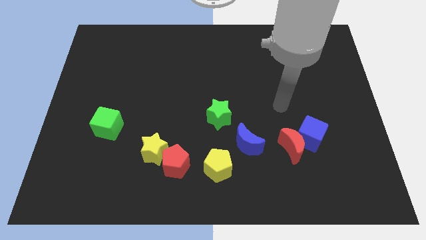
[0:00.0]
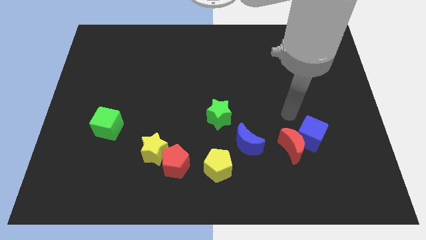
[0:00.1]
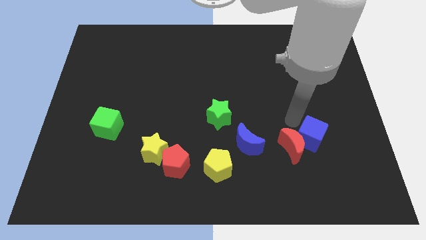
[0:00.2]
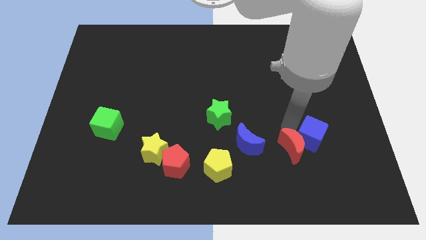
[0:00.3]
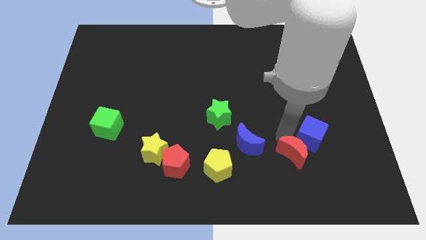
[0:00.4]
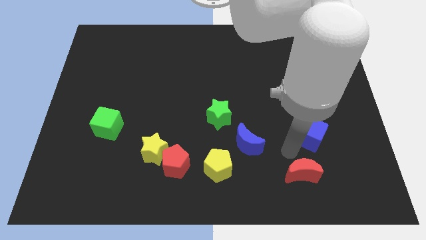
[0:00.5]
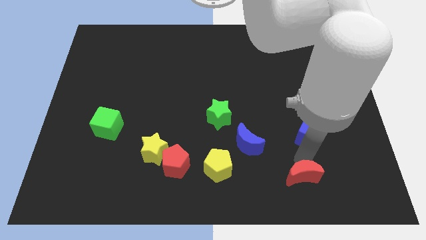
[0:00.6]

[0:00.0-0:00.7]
separate the blue cube from the red moon

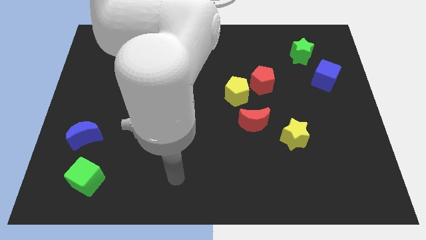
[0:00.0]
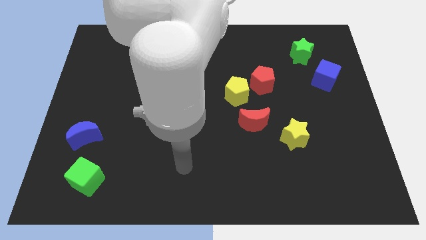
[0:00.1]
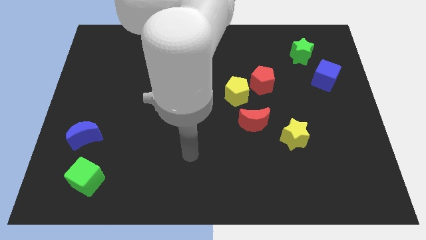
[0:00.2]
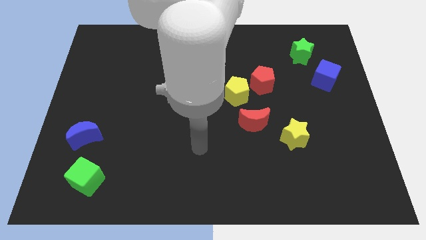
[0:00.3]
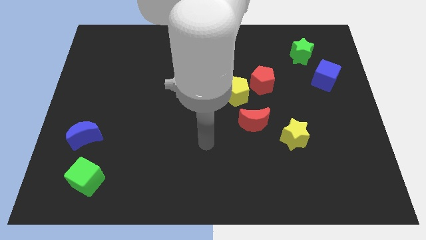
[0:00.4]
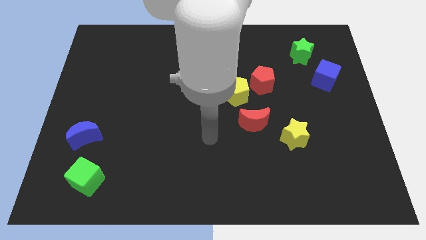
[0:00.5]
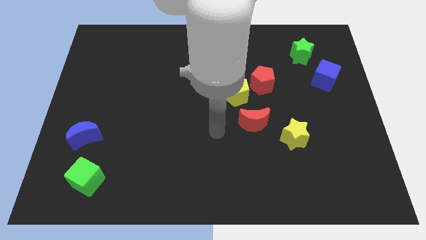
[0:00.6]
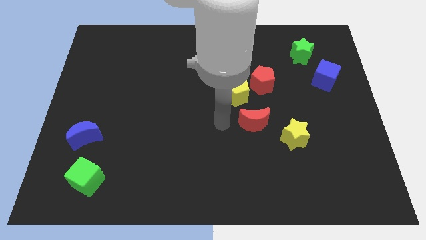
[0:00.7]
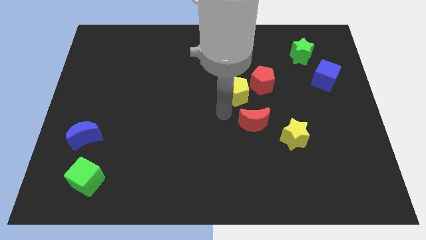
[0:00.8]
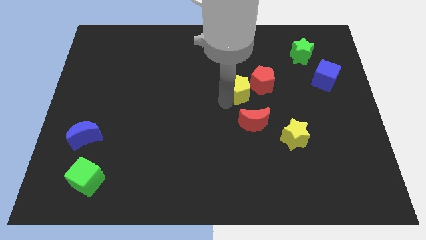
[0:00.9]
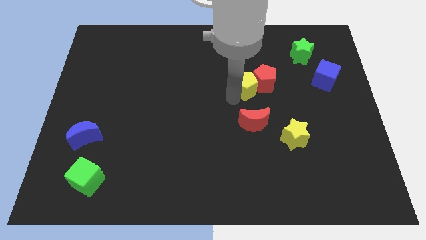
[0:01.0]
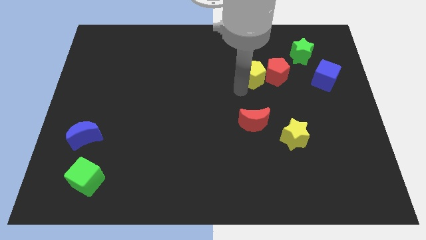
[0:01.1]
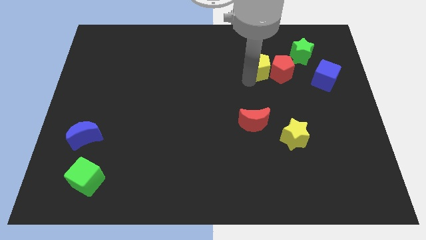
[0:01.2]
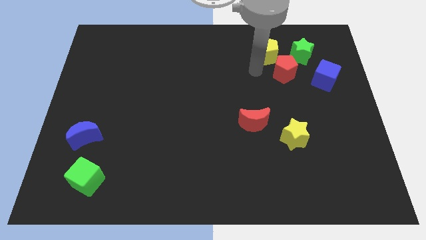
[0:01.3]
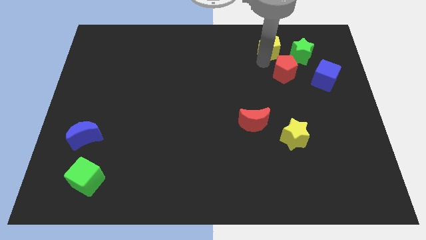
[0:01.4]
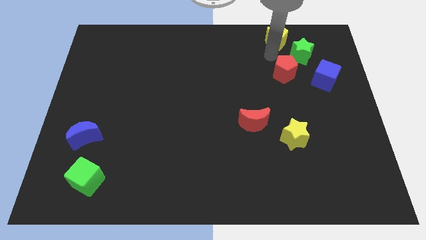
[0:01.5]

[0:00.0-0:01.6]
pull the red pentagon apart from the yellow pentagon

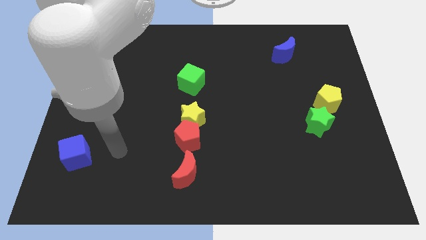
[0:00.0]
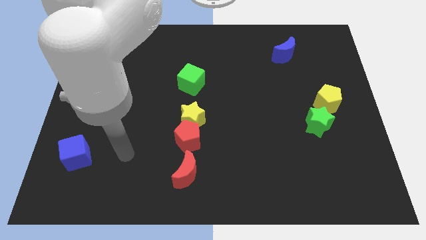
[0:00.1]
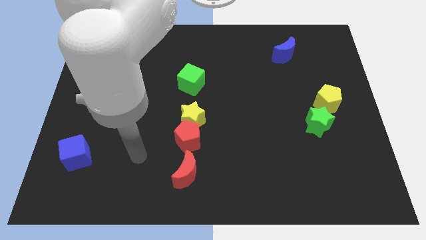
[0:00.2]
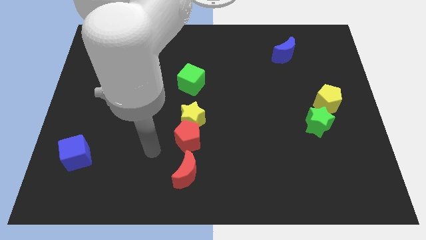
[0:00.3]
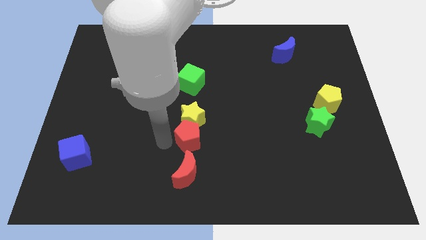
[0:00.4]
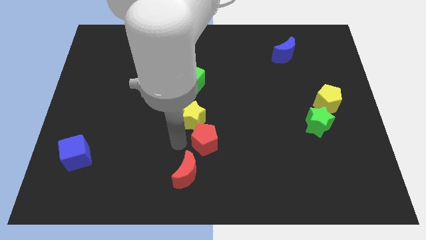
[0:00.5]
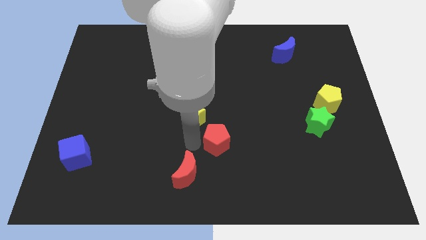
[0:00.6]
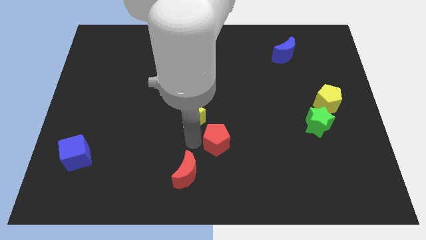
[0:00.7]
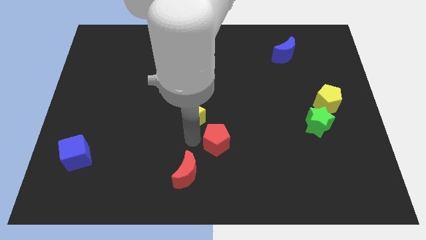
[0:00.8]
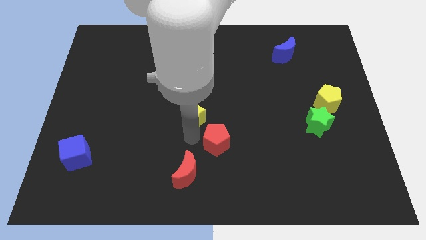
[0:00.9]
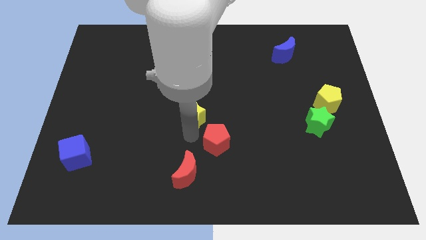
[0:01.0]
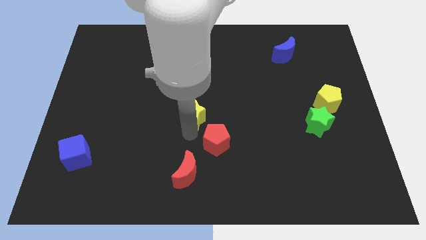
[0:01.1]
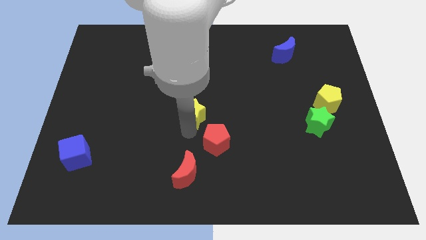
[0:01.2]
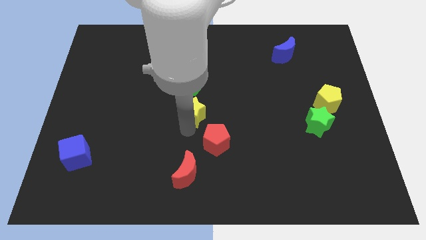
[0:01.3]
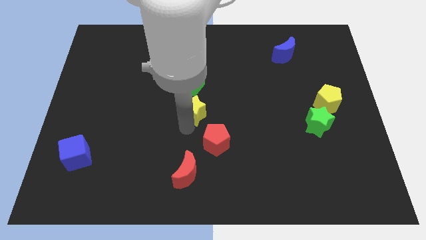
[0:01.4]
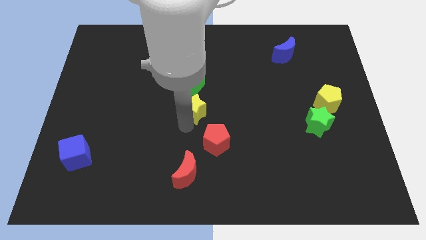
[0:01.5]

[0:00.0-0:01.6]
separate the yellow star from the red pentagon

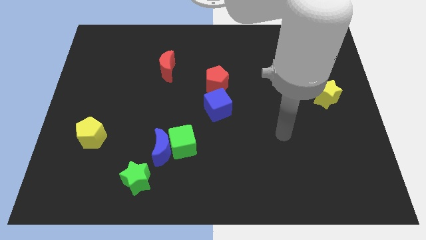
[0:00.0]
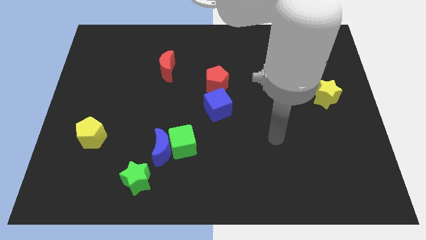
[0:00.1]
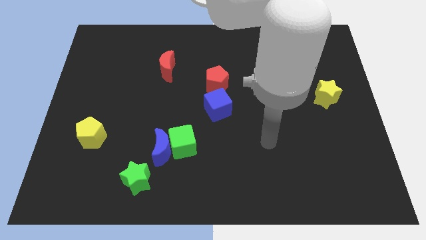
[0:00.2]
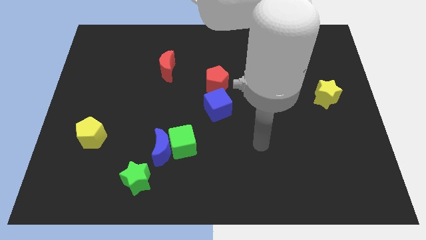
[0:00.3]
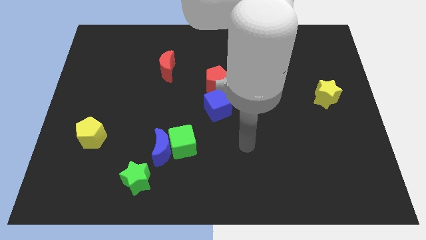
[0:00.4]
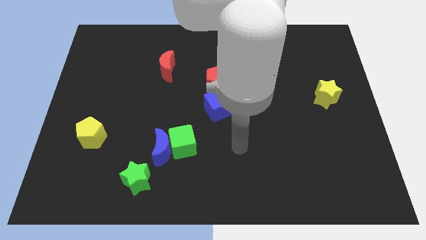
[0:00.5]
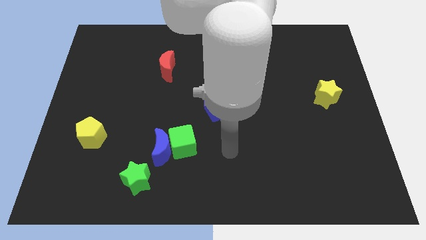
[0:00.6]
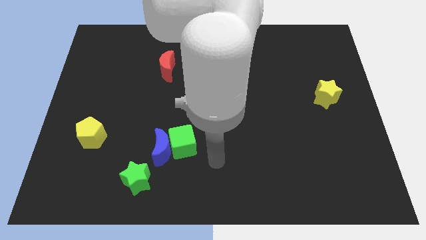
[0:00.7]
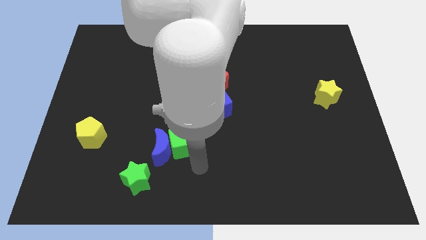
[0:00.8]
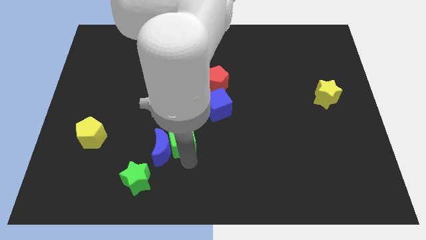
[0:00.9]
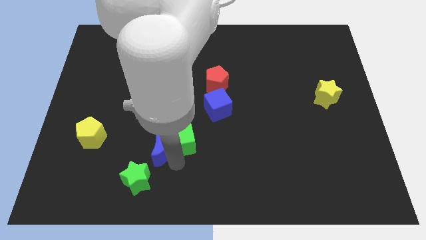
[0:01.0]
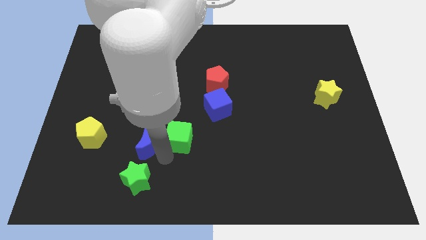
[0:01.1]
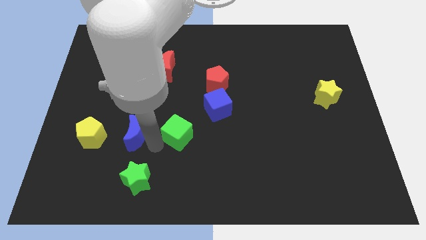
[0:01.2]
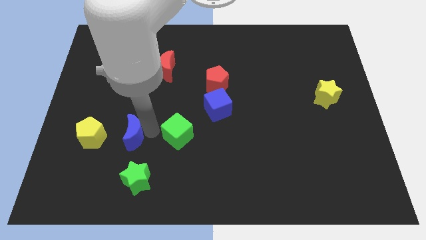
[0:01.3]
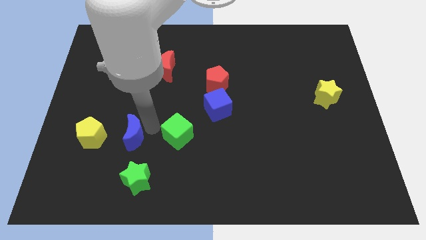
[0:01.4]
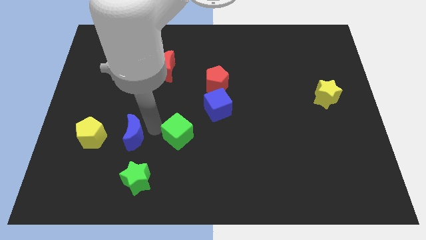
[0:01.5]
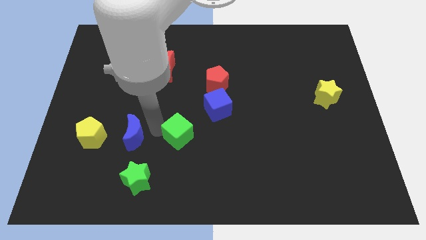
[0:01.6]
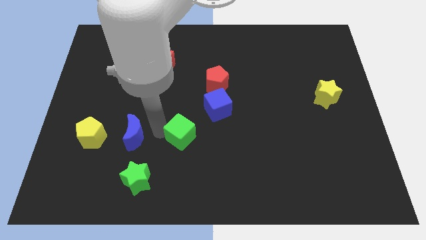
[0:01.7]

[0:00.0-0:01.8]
separate the green cube from the blue moon

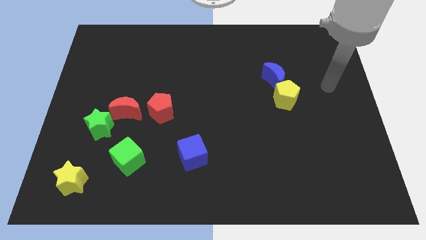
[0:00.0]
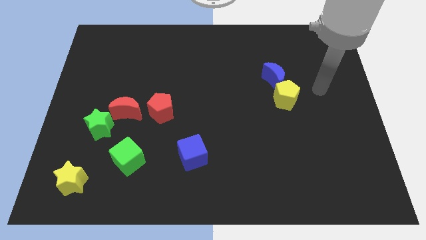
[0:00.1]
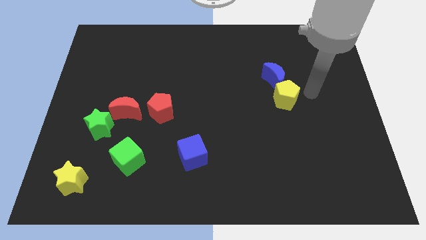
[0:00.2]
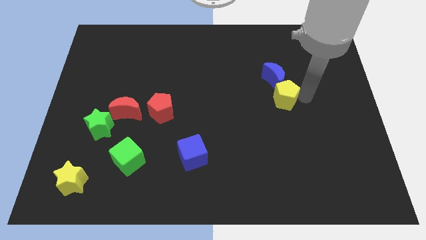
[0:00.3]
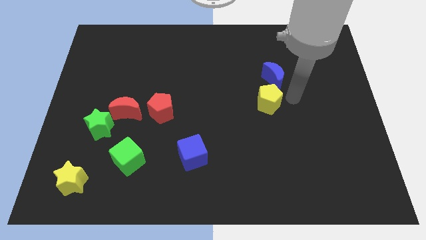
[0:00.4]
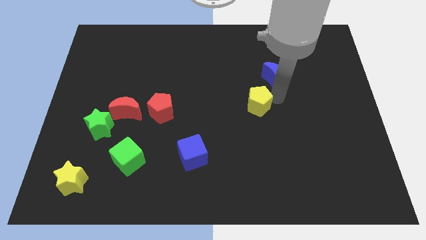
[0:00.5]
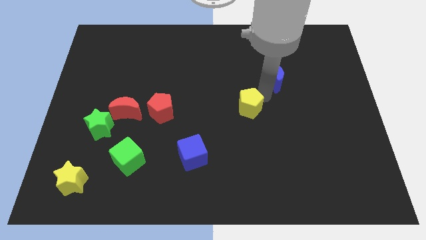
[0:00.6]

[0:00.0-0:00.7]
separate the blue moon from the yellow pentagon

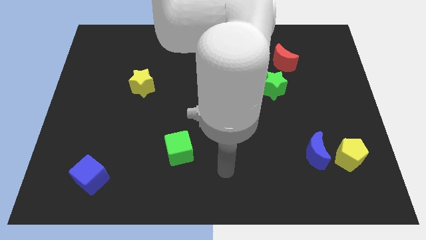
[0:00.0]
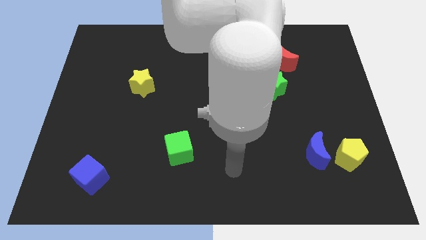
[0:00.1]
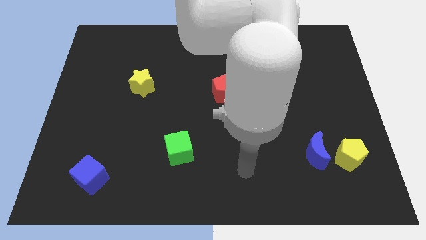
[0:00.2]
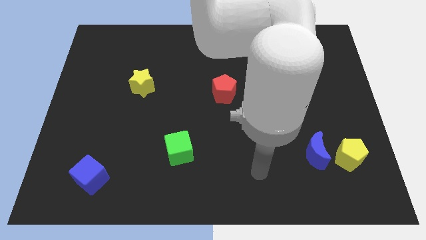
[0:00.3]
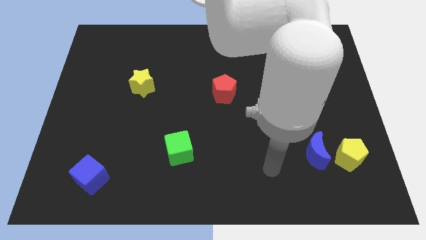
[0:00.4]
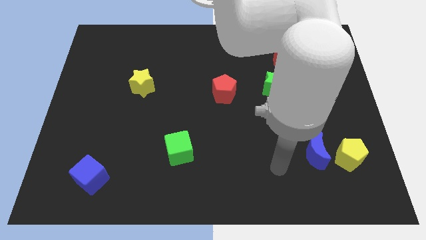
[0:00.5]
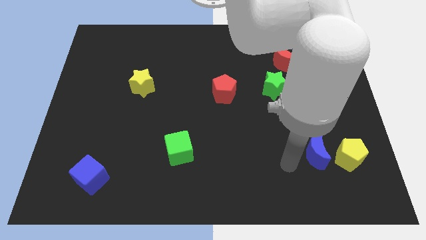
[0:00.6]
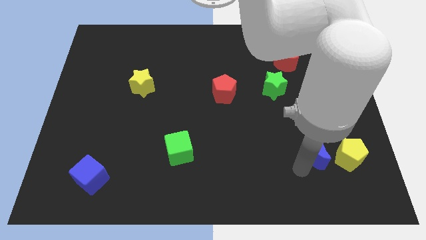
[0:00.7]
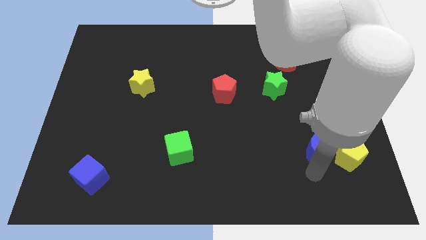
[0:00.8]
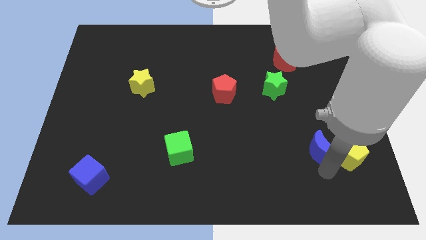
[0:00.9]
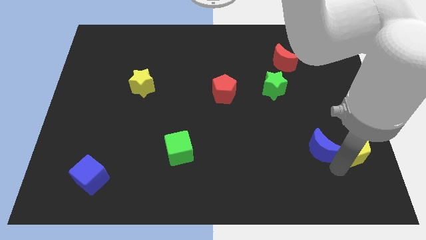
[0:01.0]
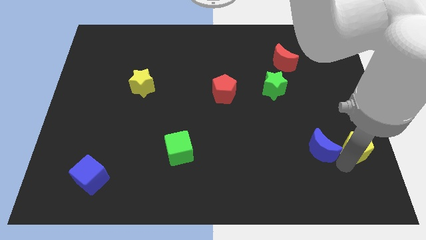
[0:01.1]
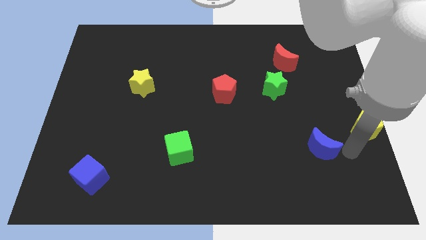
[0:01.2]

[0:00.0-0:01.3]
move the blue moon away from the yellow pentagon

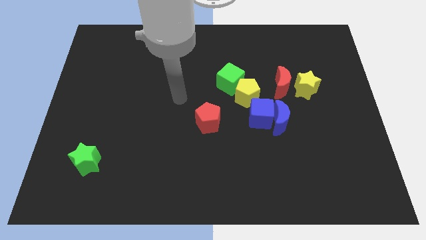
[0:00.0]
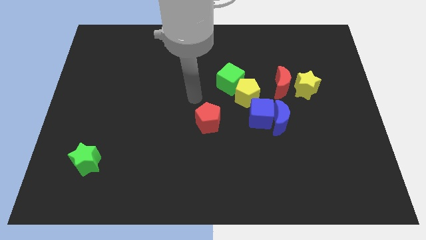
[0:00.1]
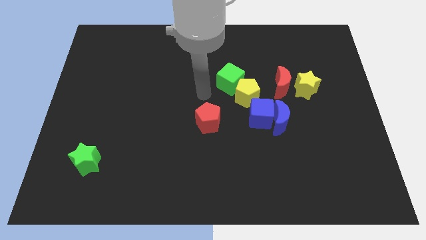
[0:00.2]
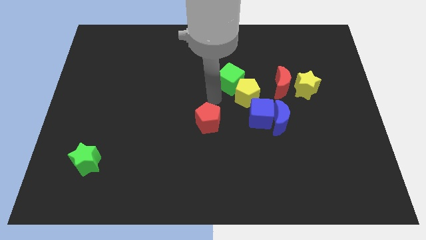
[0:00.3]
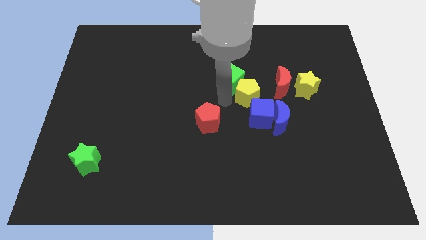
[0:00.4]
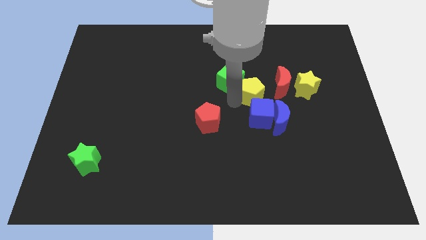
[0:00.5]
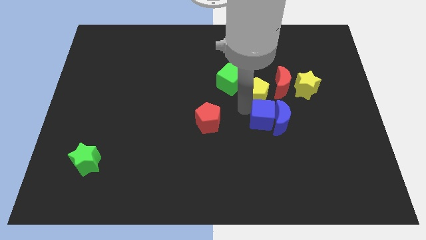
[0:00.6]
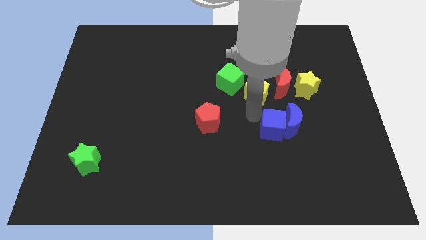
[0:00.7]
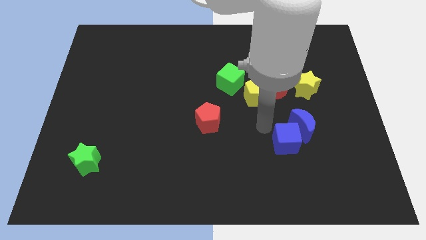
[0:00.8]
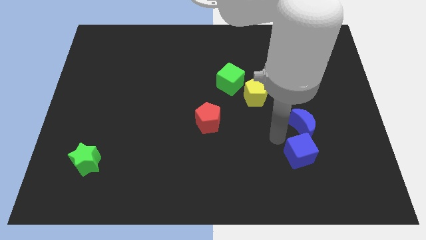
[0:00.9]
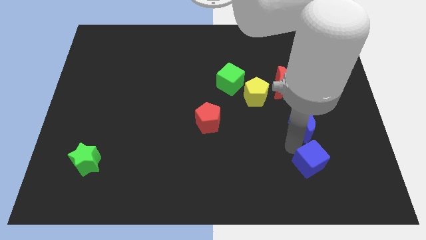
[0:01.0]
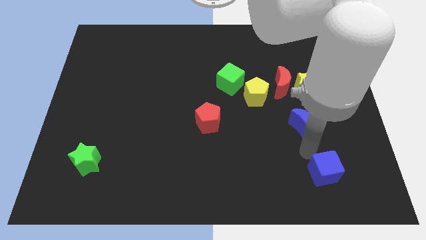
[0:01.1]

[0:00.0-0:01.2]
pull the blue moon apart from the blue cube

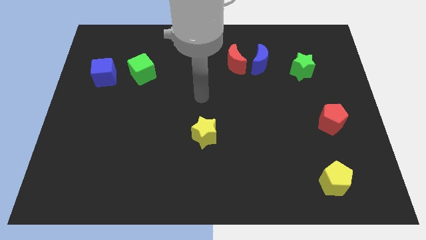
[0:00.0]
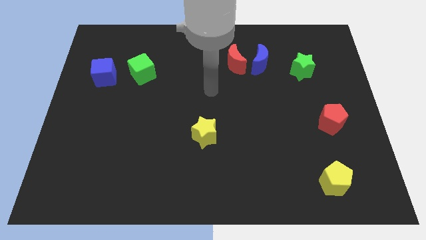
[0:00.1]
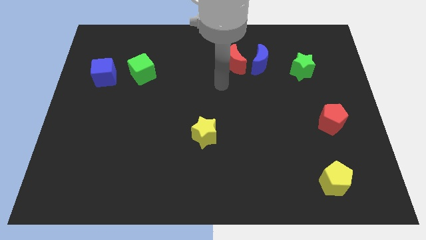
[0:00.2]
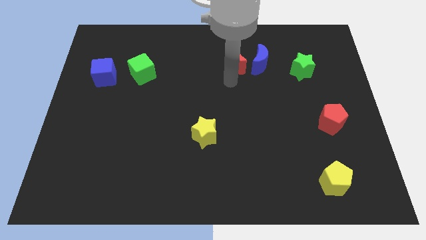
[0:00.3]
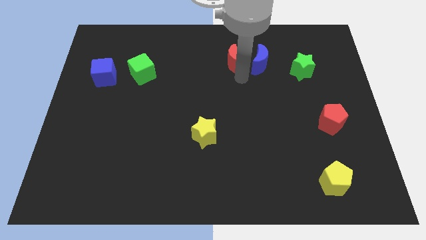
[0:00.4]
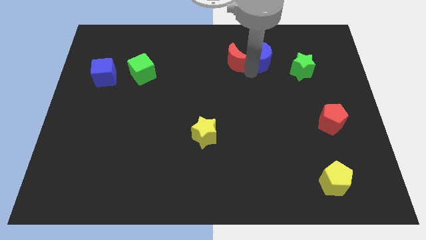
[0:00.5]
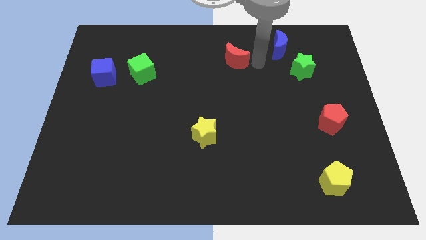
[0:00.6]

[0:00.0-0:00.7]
pull the red moon apart from the blue moon
